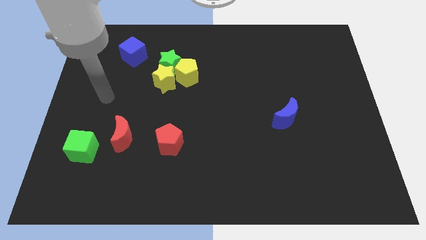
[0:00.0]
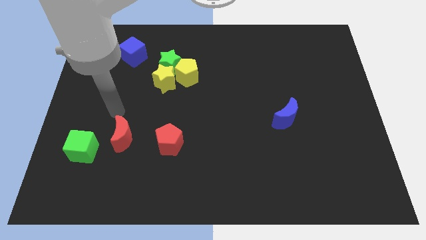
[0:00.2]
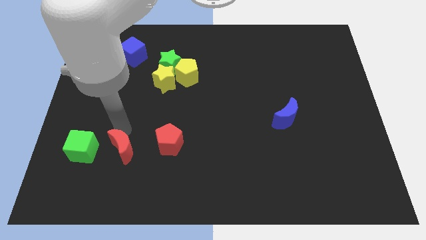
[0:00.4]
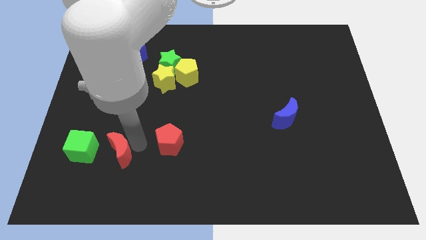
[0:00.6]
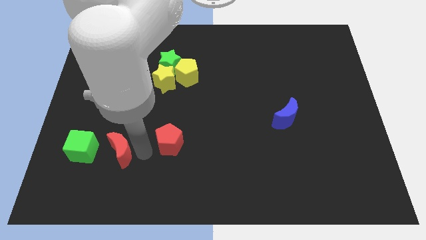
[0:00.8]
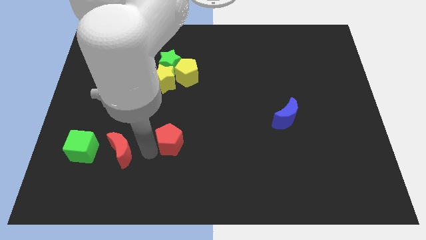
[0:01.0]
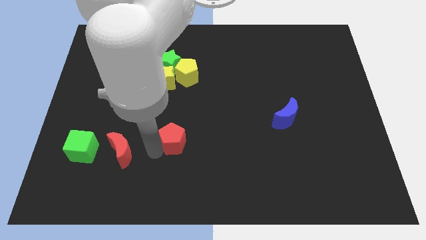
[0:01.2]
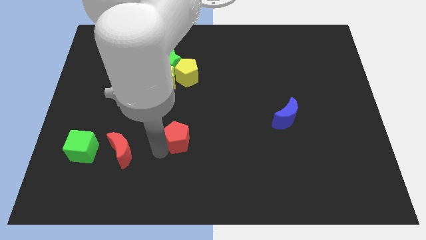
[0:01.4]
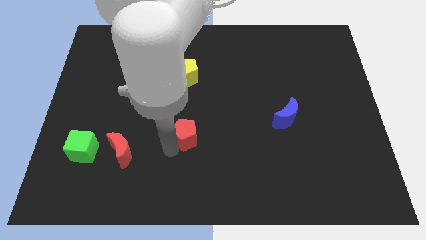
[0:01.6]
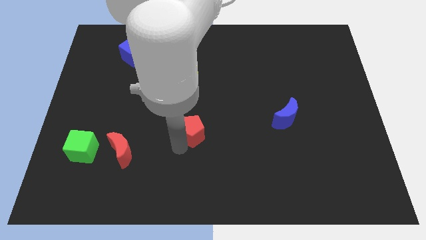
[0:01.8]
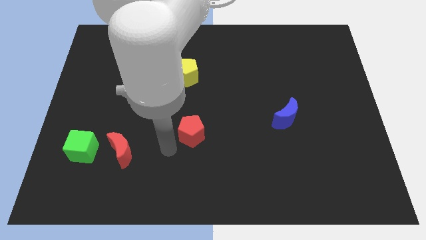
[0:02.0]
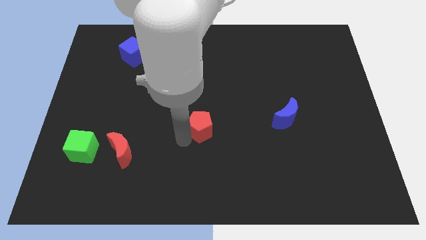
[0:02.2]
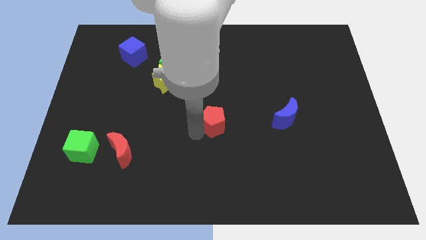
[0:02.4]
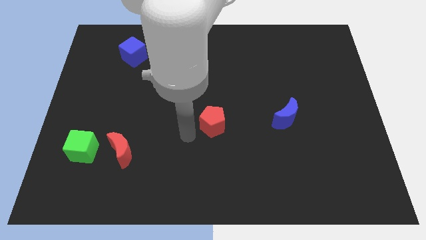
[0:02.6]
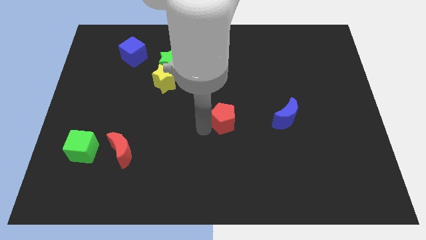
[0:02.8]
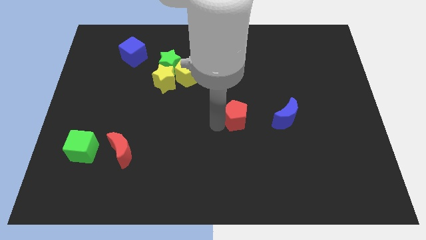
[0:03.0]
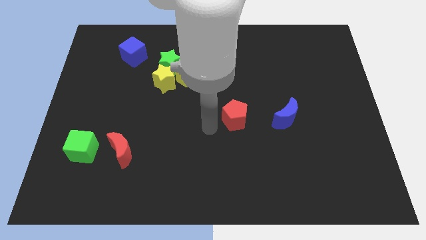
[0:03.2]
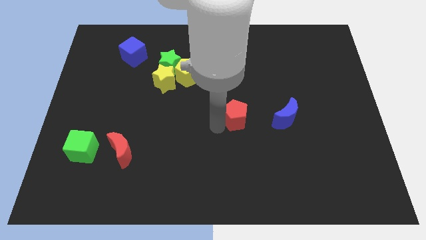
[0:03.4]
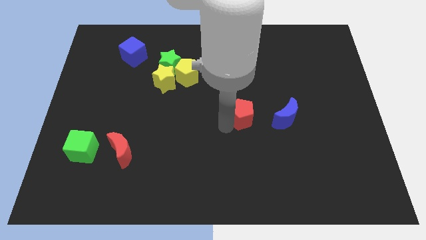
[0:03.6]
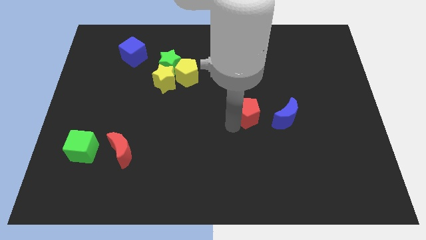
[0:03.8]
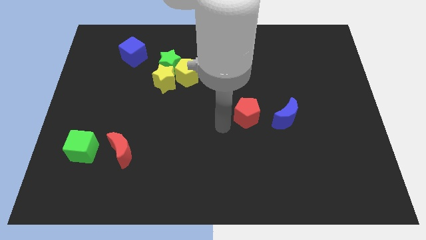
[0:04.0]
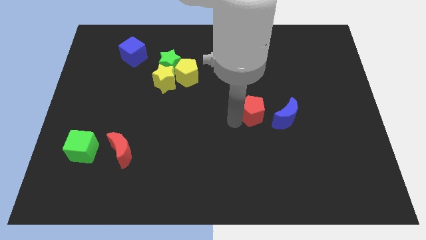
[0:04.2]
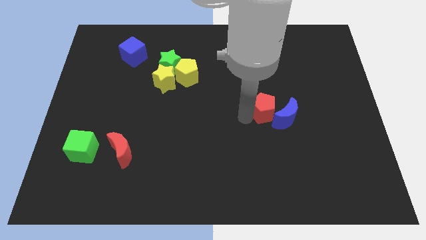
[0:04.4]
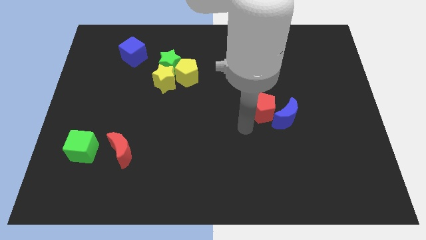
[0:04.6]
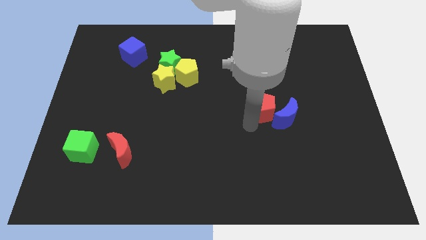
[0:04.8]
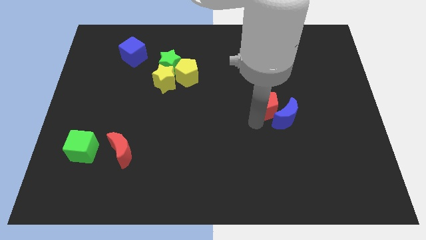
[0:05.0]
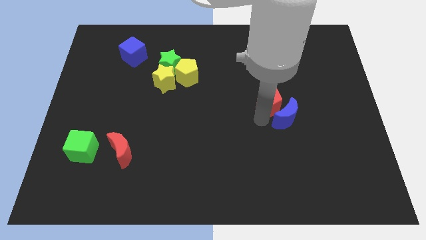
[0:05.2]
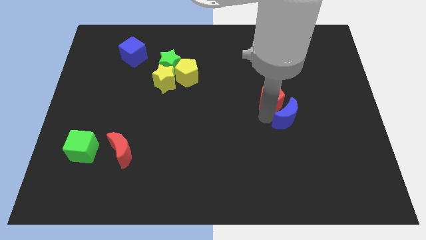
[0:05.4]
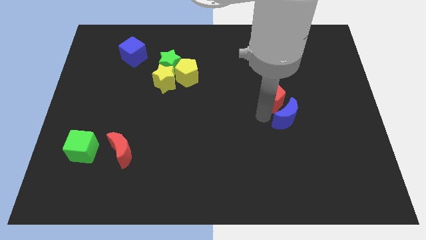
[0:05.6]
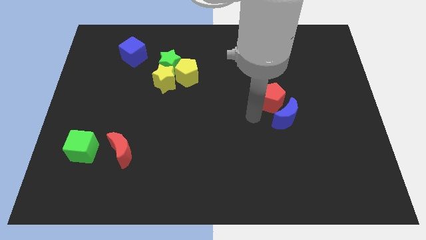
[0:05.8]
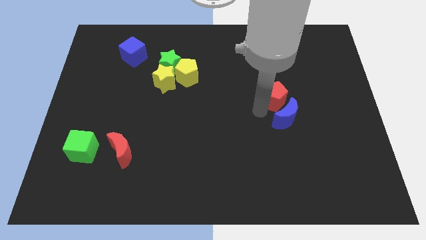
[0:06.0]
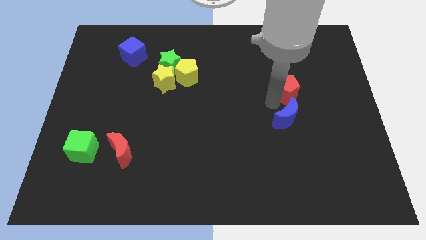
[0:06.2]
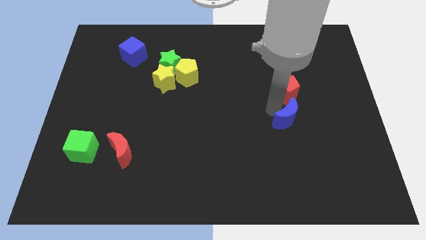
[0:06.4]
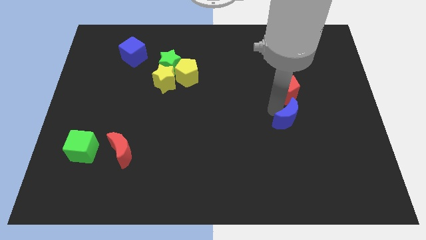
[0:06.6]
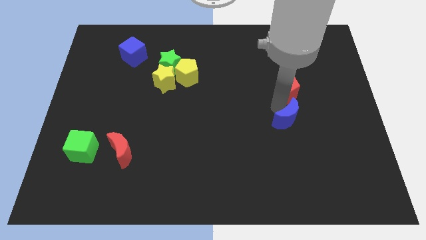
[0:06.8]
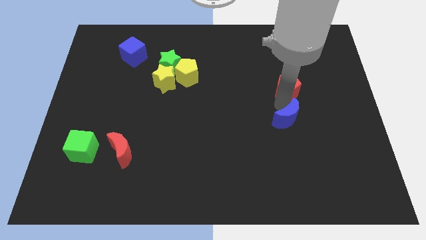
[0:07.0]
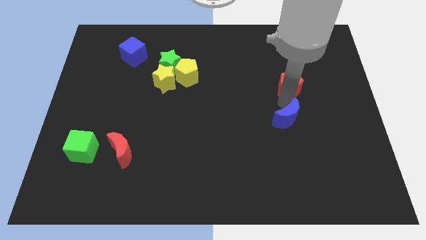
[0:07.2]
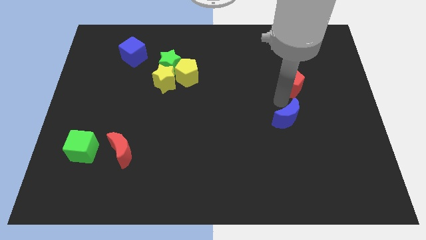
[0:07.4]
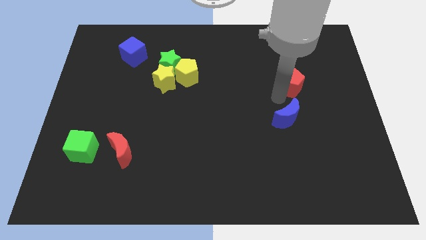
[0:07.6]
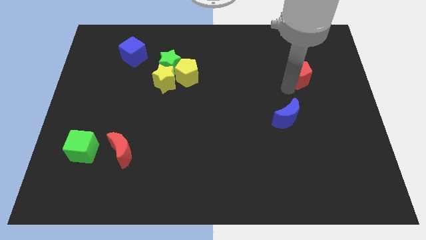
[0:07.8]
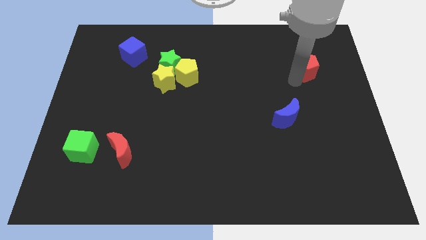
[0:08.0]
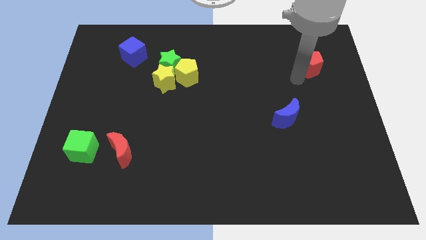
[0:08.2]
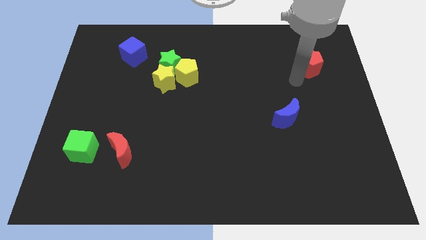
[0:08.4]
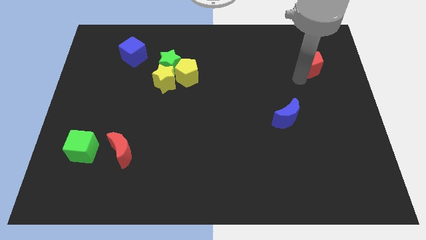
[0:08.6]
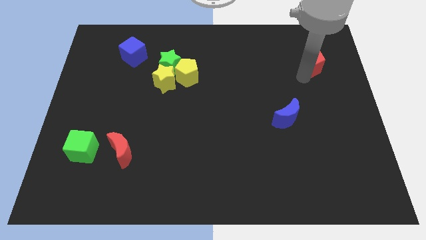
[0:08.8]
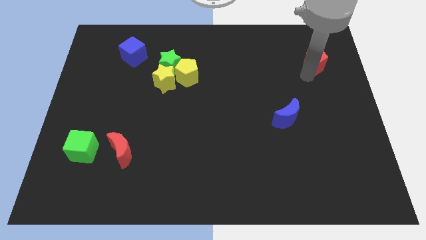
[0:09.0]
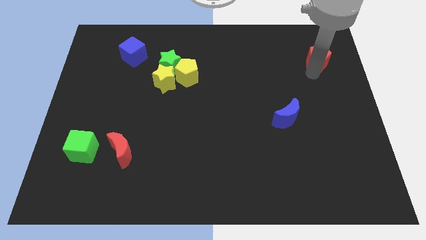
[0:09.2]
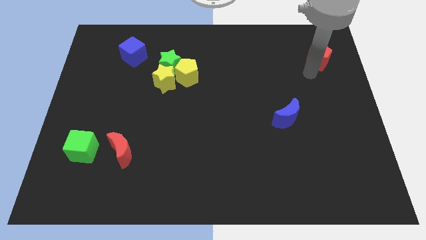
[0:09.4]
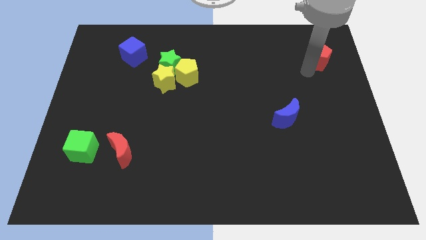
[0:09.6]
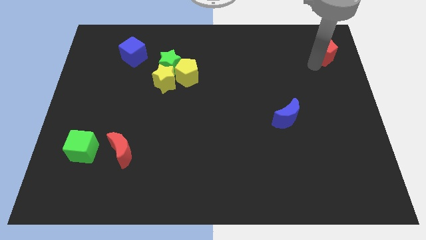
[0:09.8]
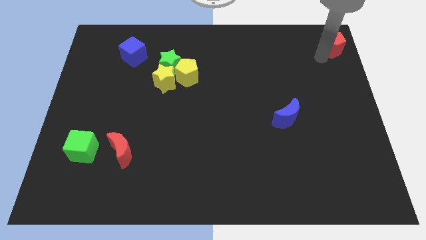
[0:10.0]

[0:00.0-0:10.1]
slide the red pentagon to the top right corner

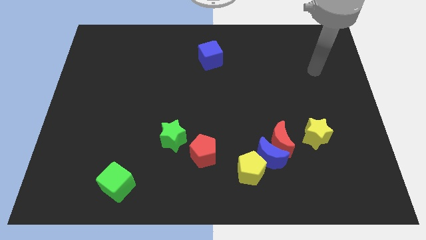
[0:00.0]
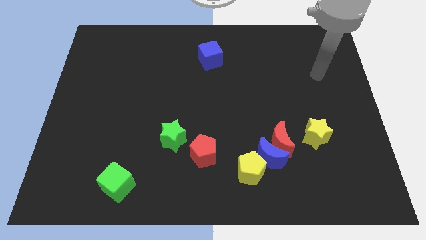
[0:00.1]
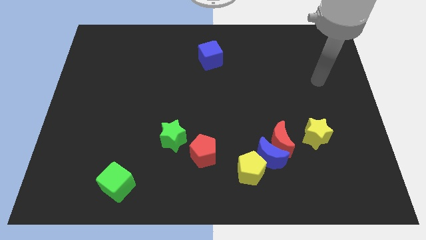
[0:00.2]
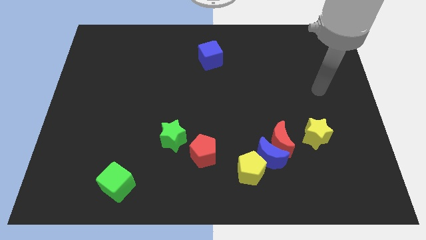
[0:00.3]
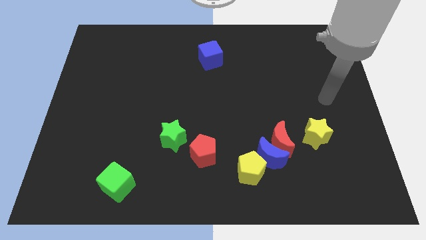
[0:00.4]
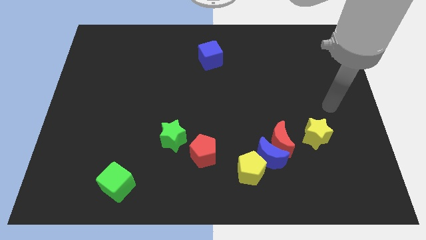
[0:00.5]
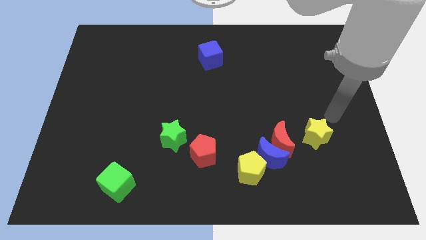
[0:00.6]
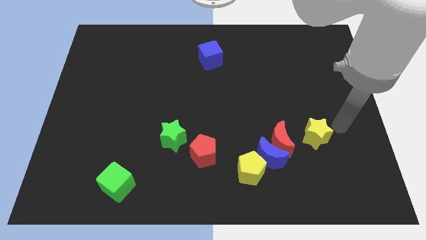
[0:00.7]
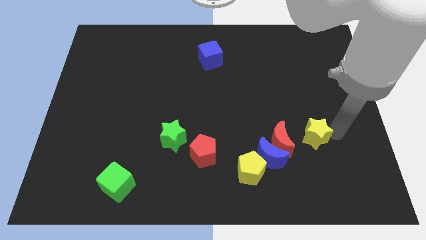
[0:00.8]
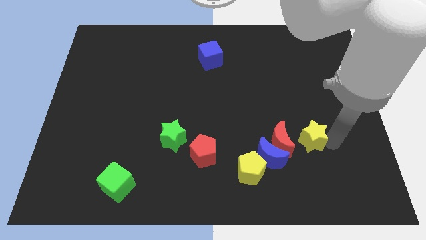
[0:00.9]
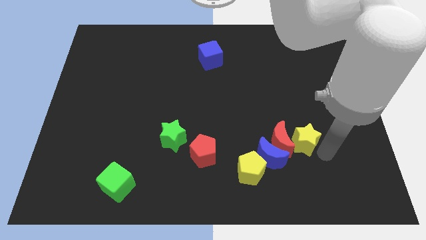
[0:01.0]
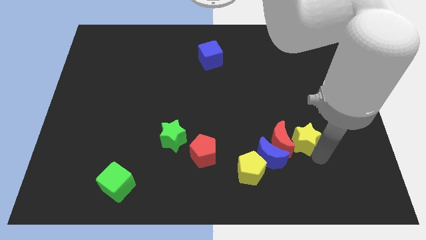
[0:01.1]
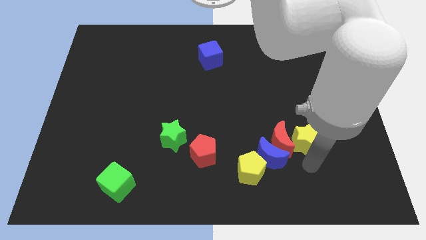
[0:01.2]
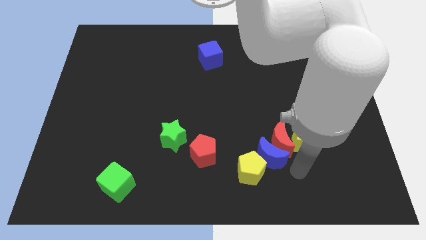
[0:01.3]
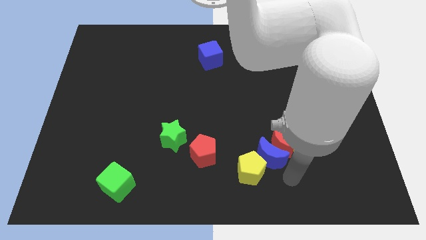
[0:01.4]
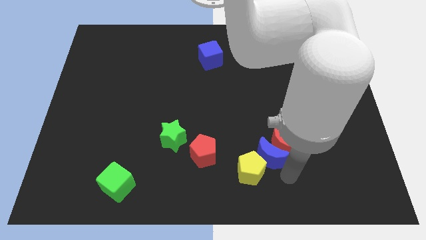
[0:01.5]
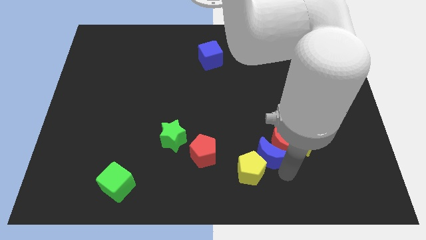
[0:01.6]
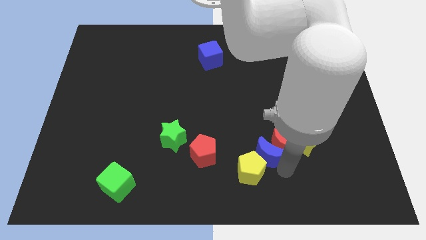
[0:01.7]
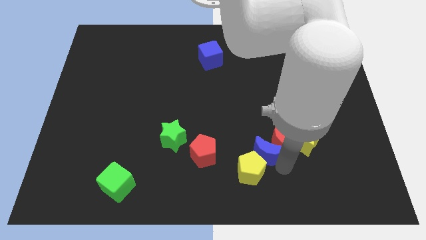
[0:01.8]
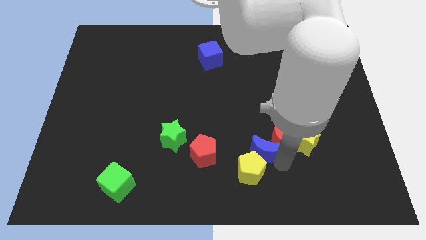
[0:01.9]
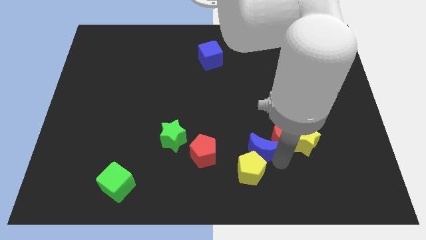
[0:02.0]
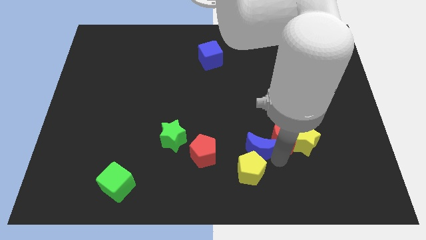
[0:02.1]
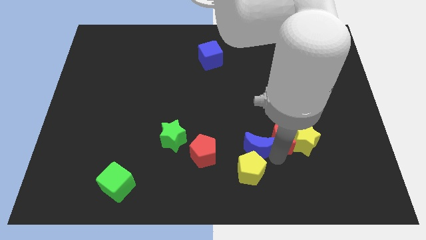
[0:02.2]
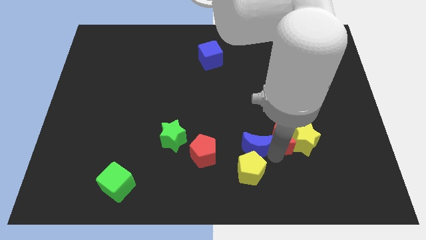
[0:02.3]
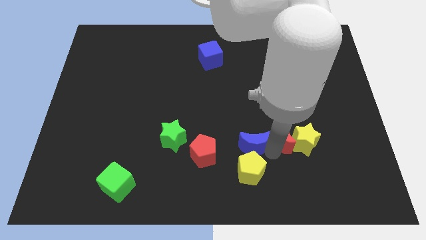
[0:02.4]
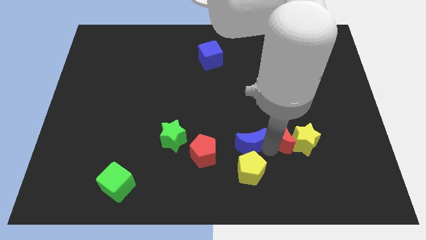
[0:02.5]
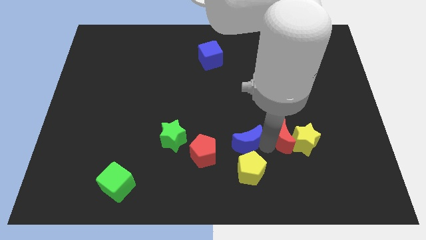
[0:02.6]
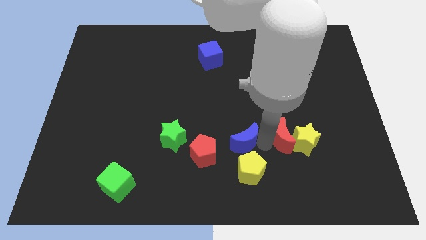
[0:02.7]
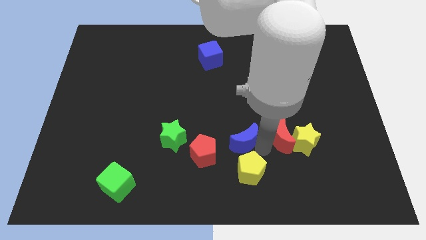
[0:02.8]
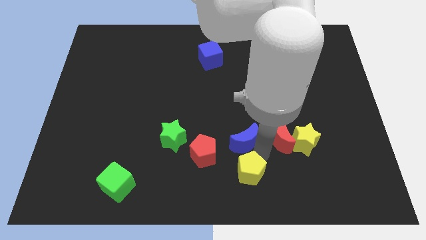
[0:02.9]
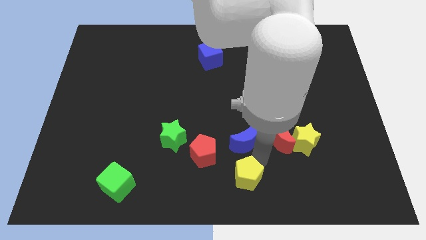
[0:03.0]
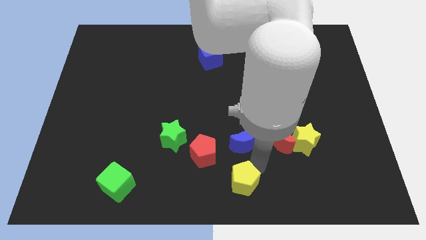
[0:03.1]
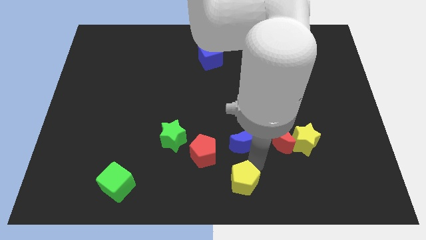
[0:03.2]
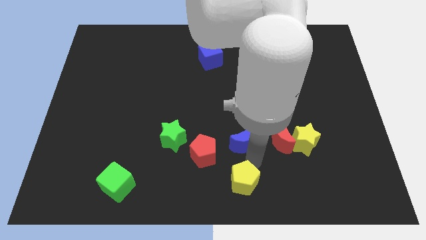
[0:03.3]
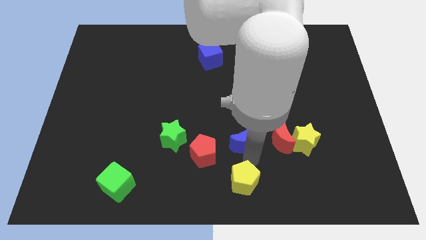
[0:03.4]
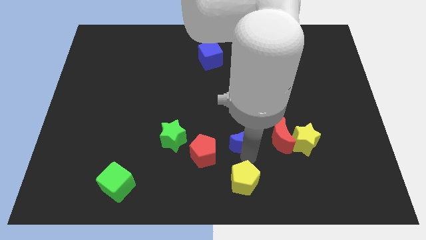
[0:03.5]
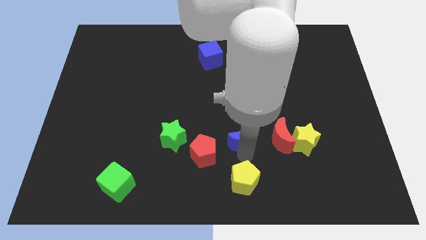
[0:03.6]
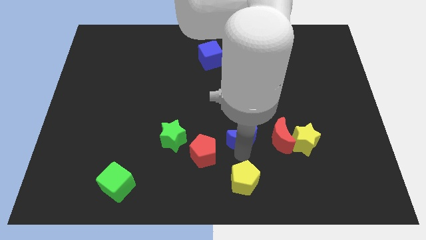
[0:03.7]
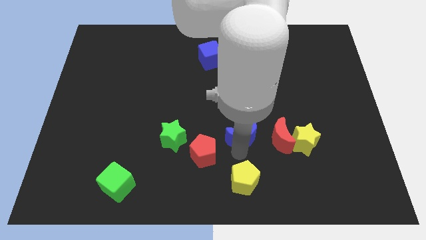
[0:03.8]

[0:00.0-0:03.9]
push the blue moon to the center
